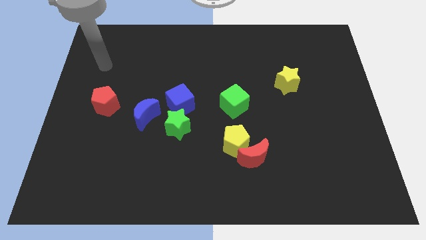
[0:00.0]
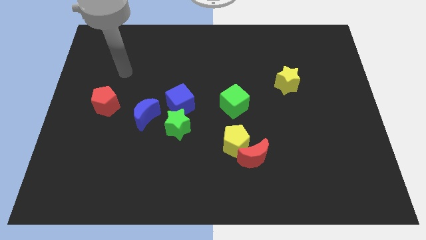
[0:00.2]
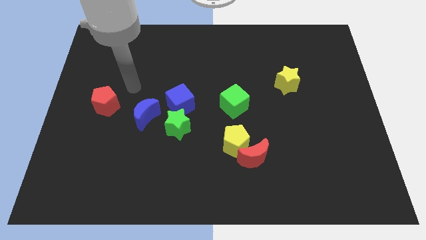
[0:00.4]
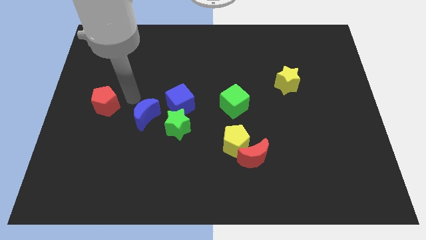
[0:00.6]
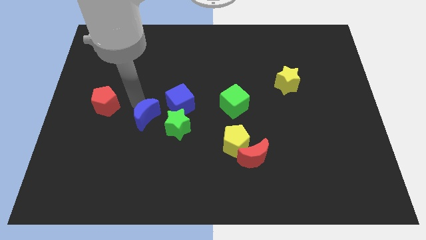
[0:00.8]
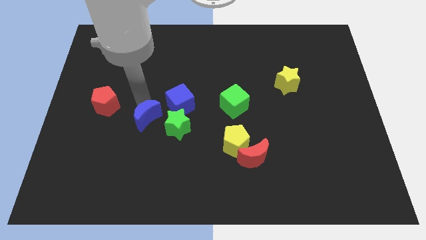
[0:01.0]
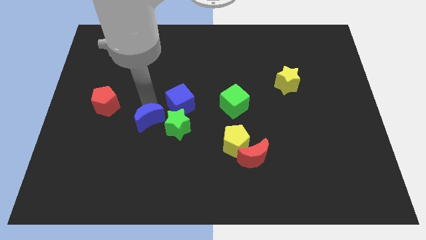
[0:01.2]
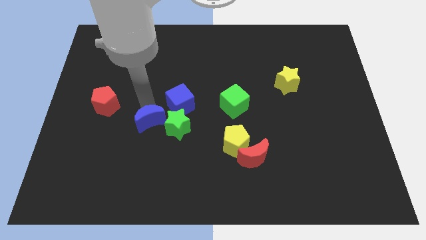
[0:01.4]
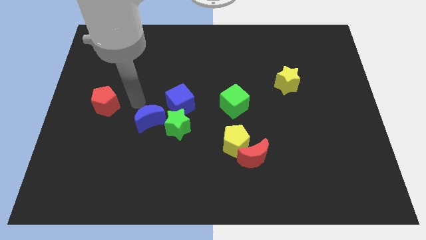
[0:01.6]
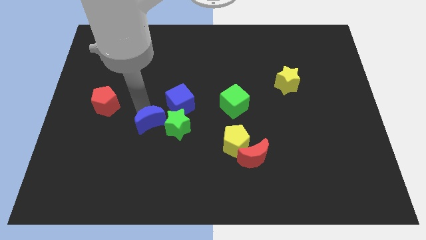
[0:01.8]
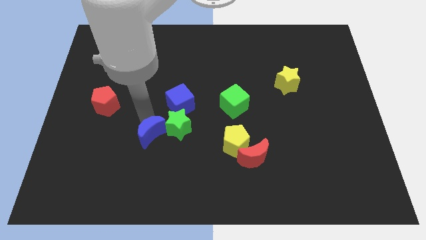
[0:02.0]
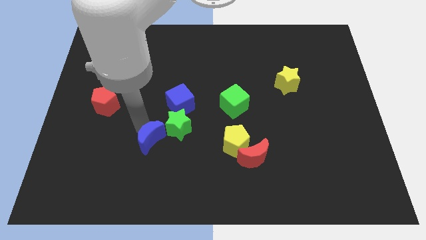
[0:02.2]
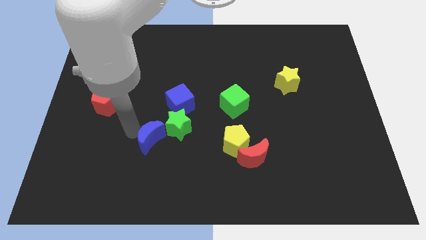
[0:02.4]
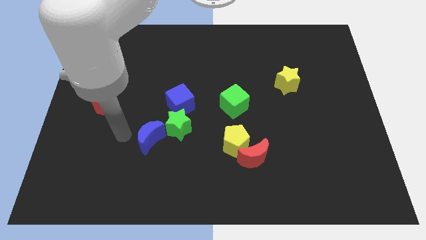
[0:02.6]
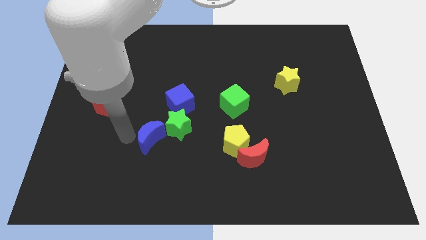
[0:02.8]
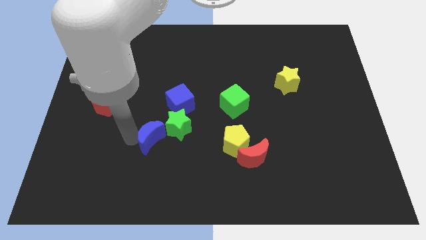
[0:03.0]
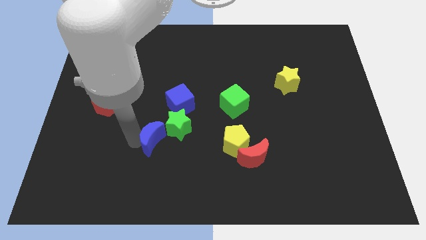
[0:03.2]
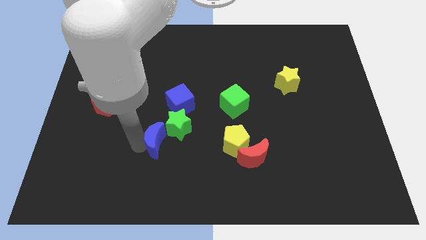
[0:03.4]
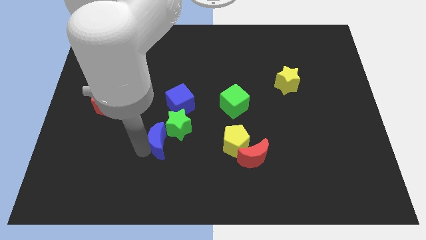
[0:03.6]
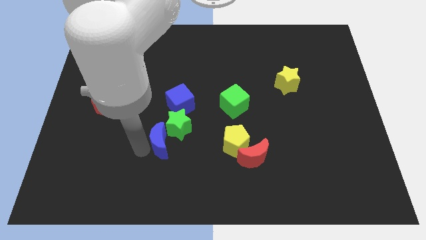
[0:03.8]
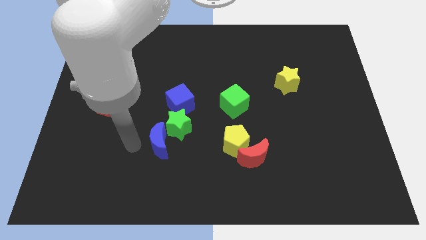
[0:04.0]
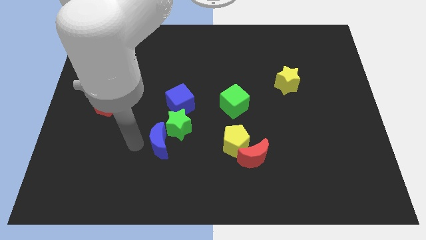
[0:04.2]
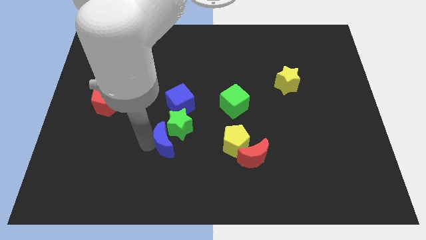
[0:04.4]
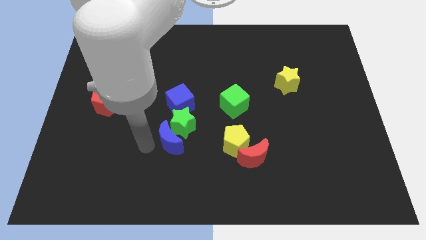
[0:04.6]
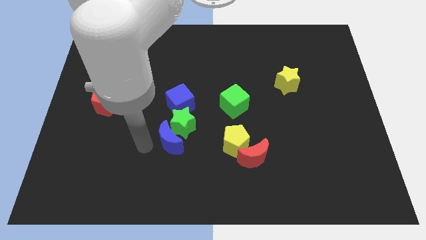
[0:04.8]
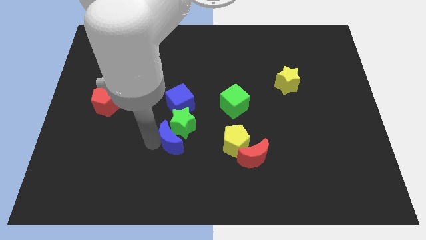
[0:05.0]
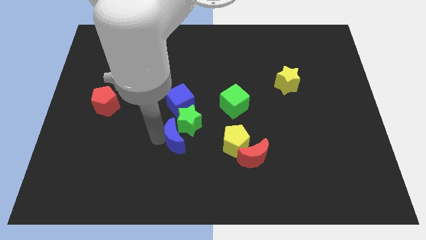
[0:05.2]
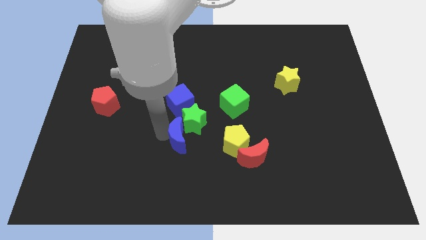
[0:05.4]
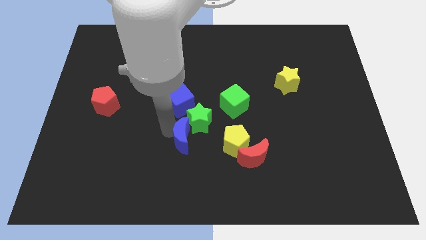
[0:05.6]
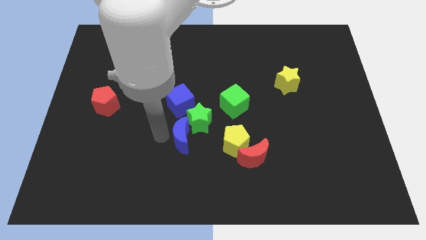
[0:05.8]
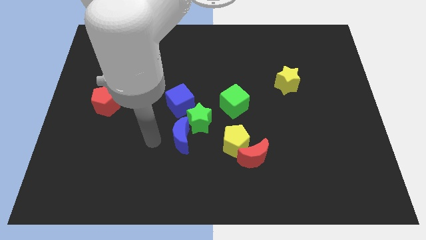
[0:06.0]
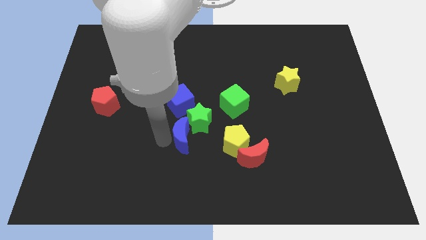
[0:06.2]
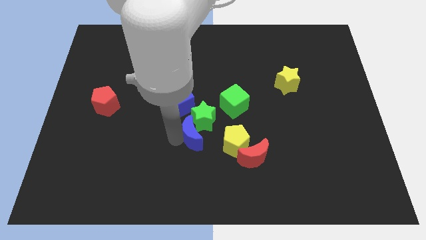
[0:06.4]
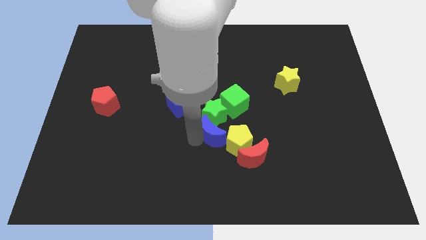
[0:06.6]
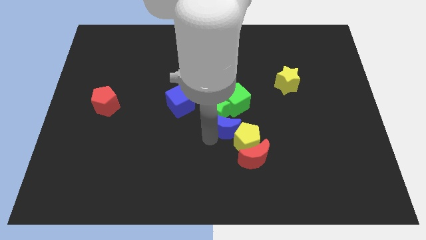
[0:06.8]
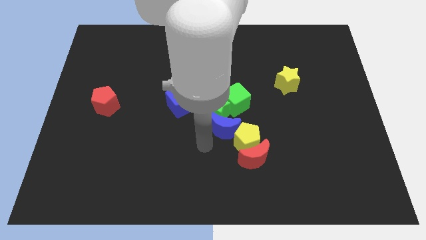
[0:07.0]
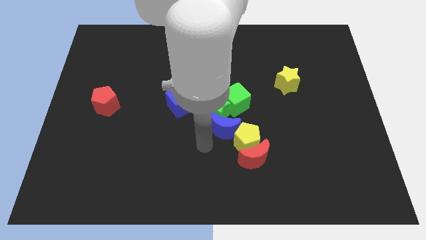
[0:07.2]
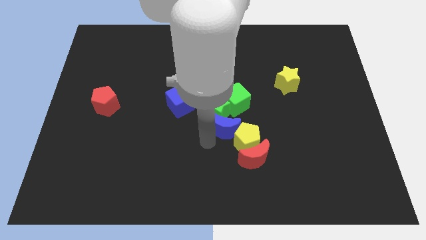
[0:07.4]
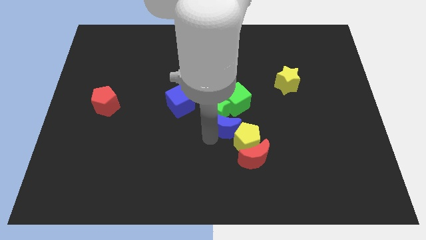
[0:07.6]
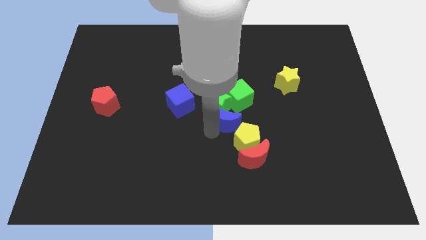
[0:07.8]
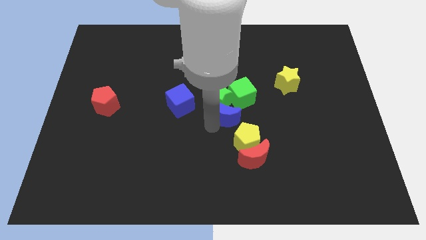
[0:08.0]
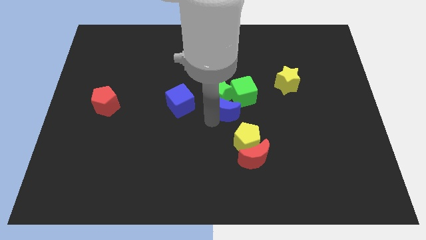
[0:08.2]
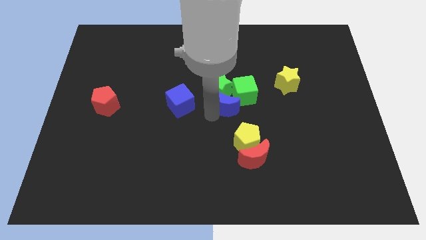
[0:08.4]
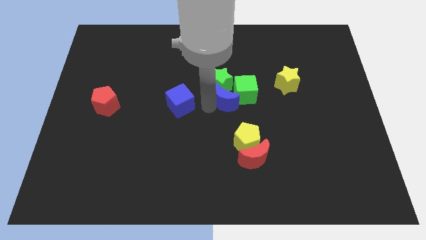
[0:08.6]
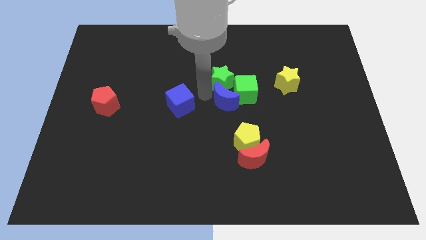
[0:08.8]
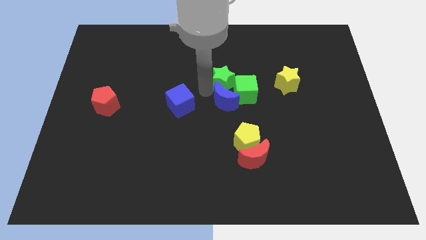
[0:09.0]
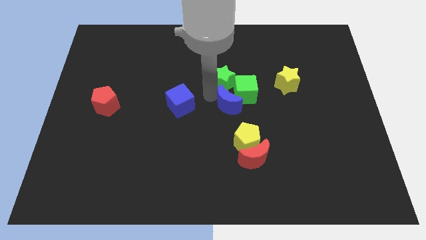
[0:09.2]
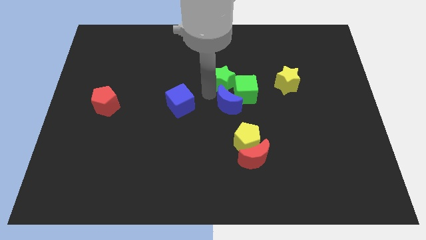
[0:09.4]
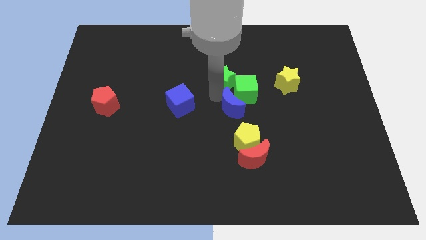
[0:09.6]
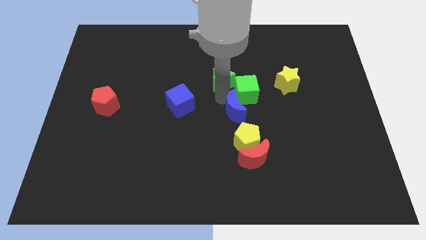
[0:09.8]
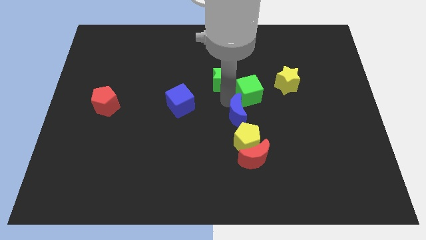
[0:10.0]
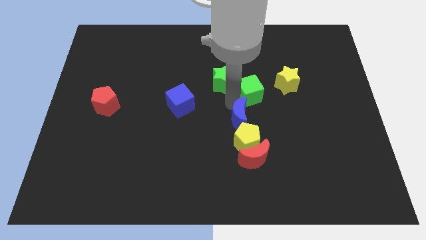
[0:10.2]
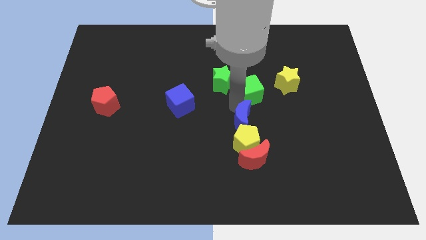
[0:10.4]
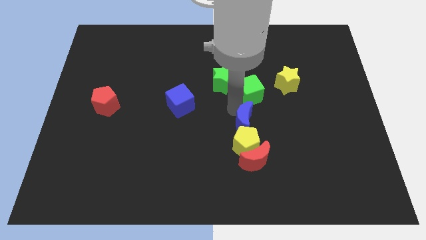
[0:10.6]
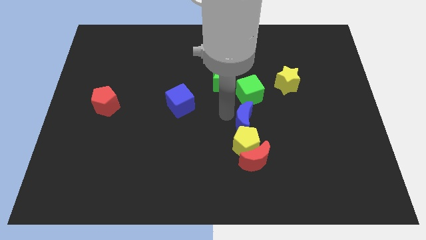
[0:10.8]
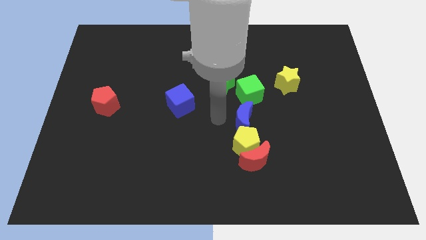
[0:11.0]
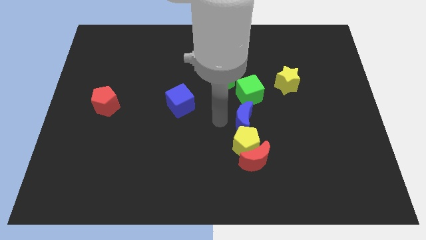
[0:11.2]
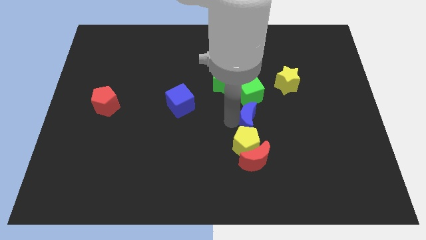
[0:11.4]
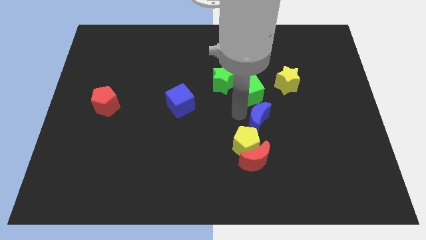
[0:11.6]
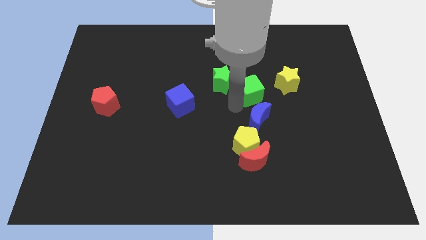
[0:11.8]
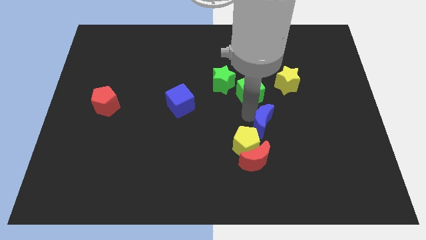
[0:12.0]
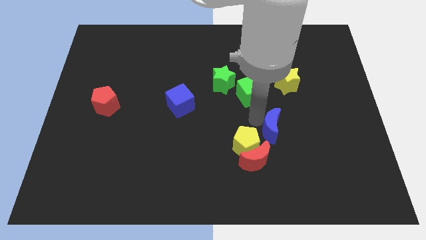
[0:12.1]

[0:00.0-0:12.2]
slide the blue moon to the right of the yellow pentagon

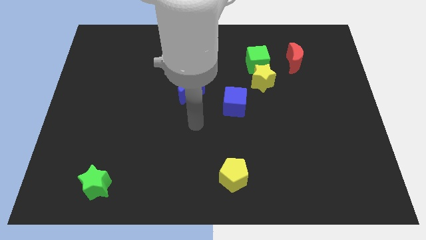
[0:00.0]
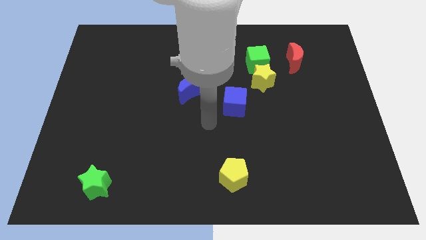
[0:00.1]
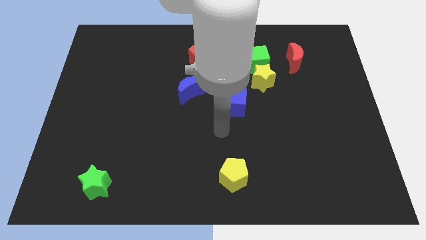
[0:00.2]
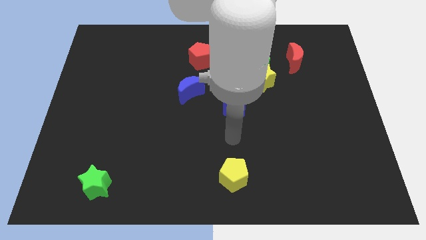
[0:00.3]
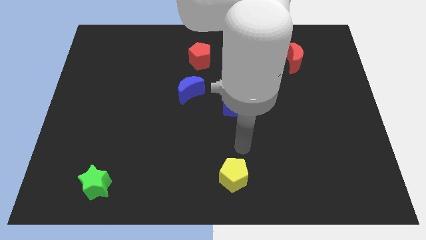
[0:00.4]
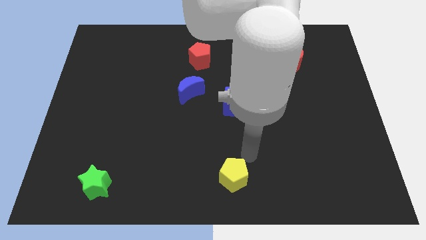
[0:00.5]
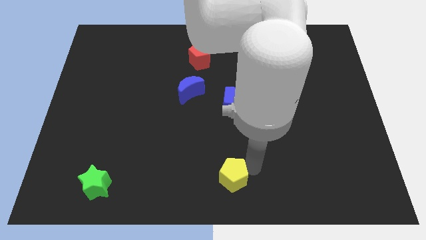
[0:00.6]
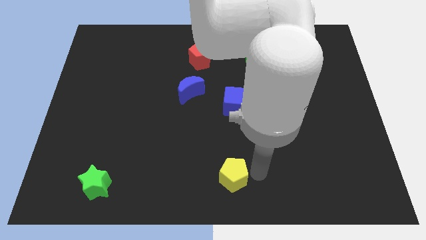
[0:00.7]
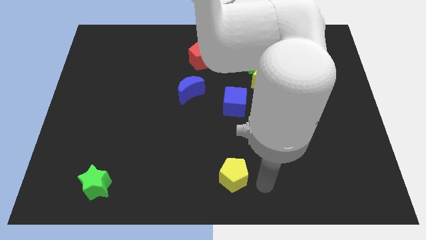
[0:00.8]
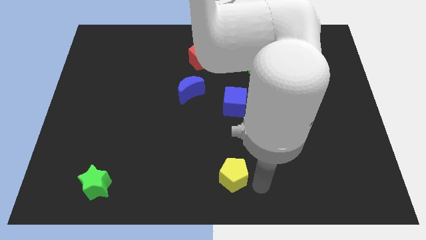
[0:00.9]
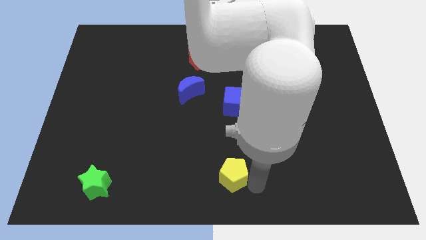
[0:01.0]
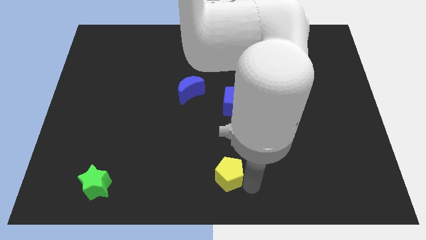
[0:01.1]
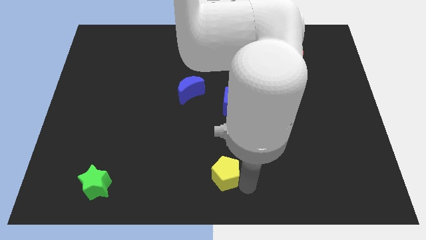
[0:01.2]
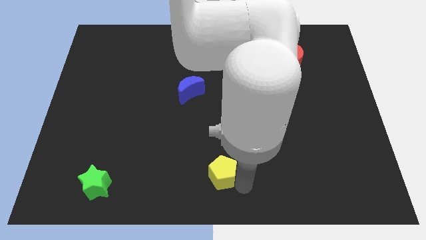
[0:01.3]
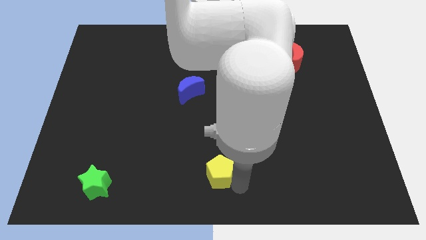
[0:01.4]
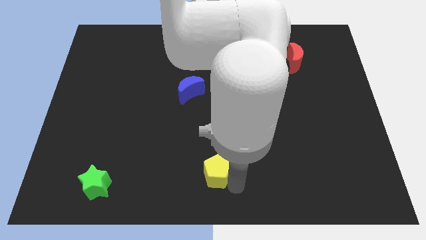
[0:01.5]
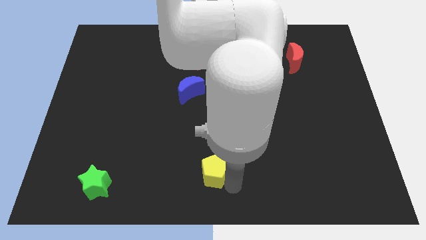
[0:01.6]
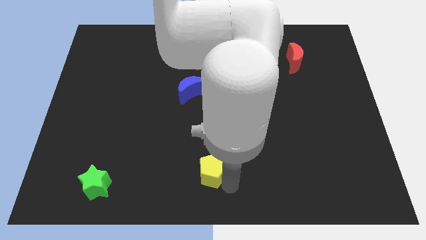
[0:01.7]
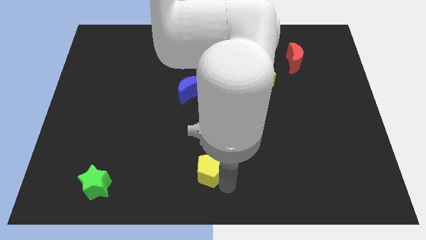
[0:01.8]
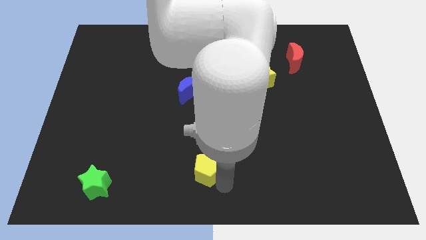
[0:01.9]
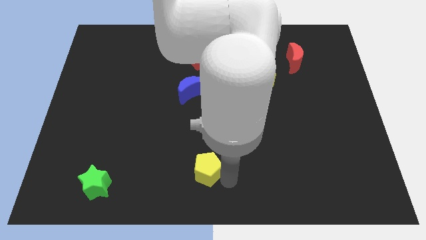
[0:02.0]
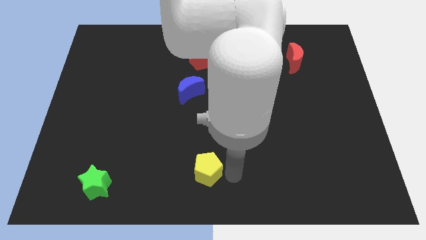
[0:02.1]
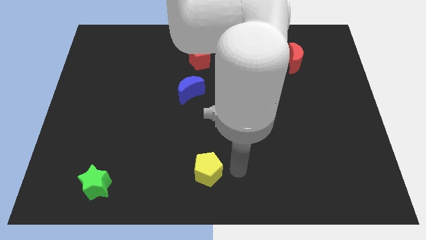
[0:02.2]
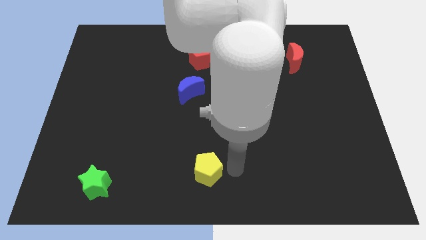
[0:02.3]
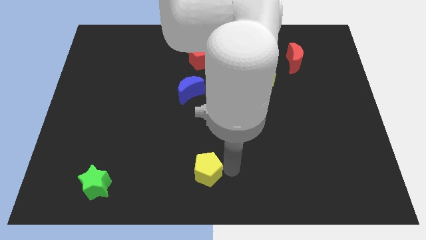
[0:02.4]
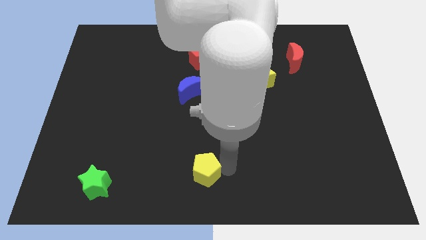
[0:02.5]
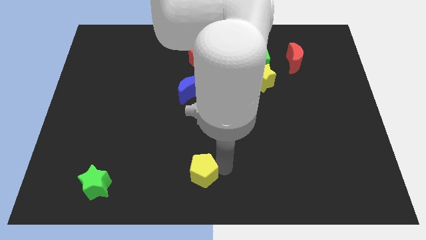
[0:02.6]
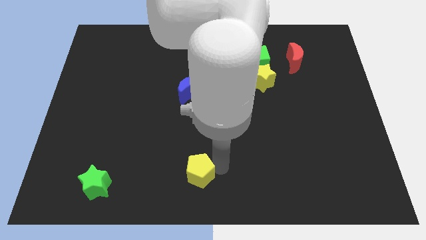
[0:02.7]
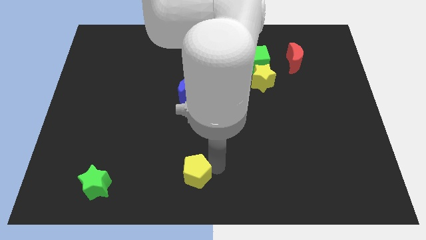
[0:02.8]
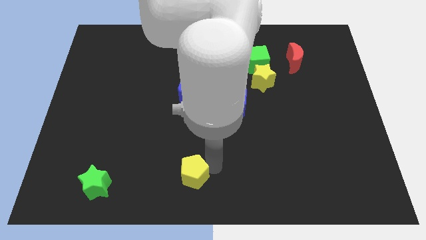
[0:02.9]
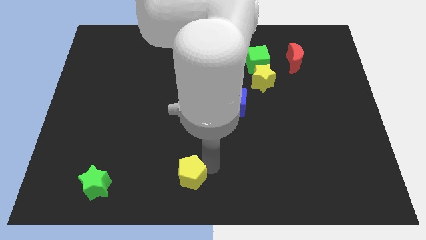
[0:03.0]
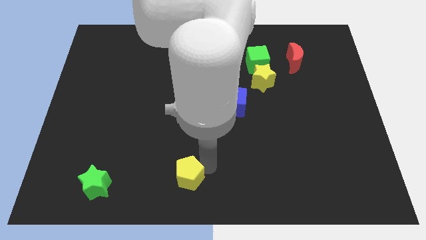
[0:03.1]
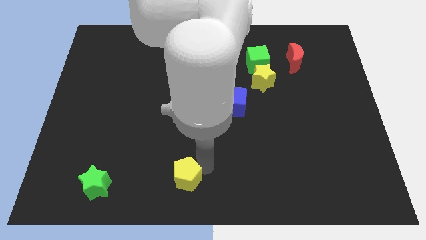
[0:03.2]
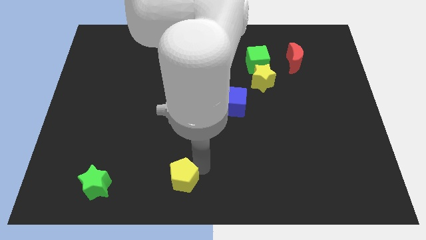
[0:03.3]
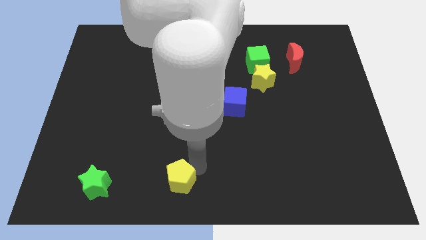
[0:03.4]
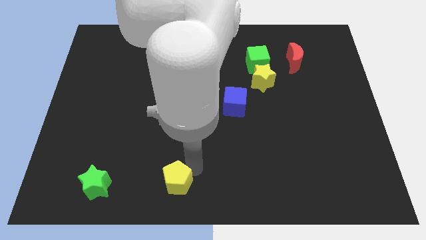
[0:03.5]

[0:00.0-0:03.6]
put the yellow pentagon to the right side of the green star
